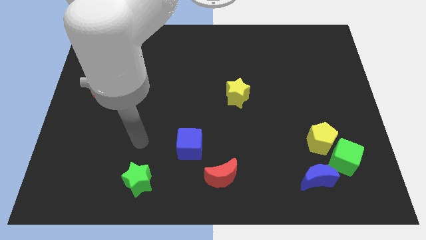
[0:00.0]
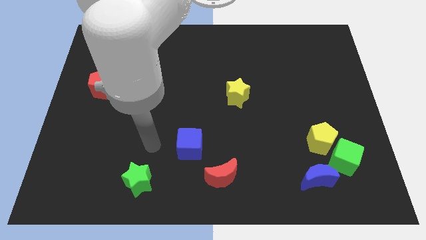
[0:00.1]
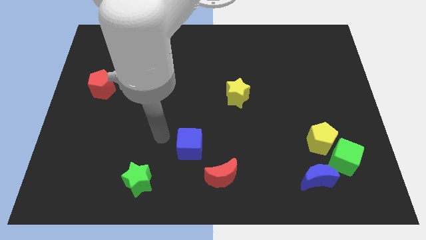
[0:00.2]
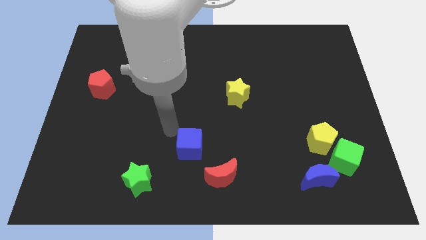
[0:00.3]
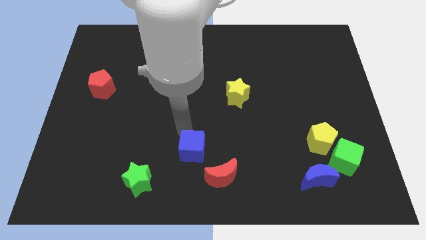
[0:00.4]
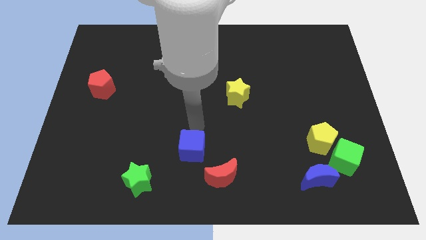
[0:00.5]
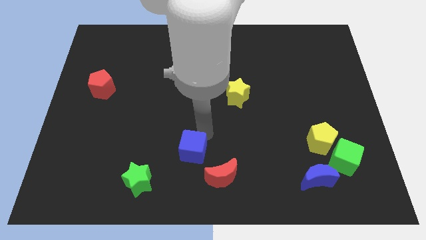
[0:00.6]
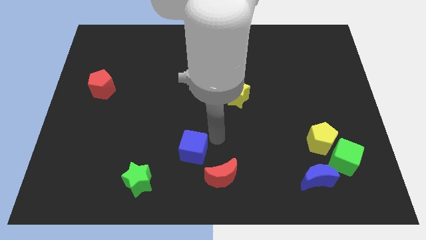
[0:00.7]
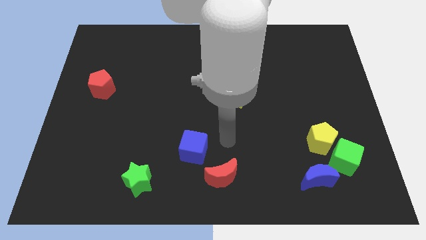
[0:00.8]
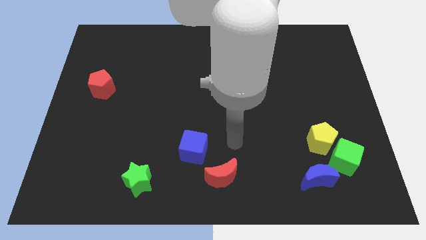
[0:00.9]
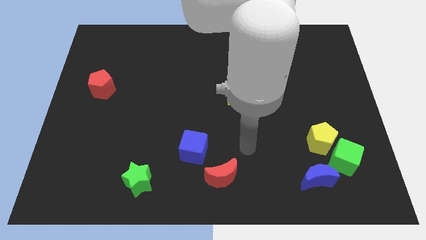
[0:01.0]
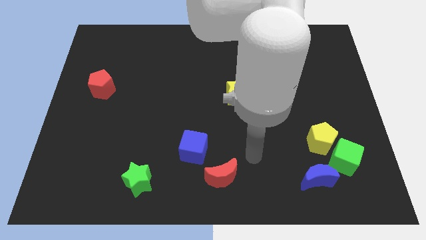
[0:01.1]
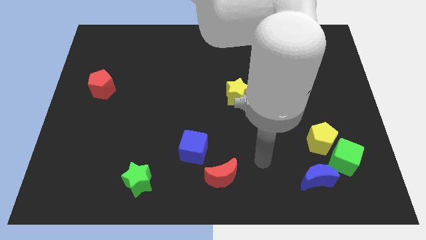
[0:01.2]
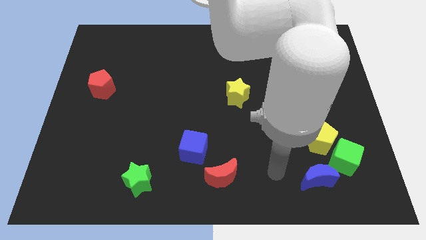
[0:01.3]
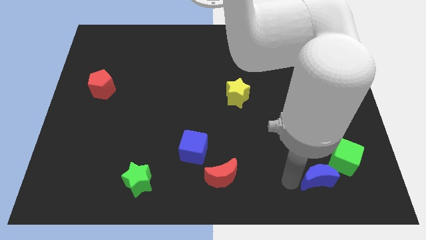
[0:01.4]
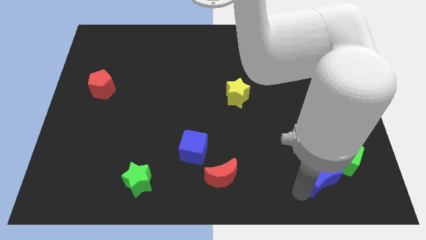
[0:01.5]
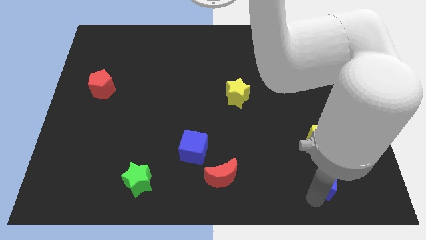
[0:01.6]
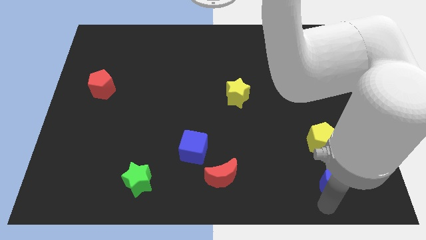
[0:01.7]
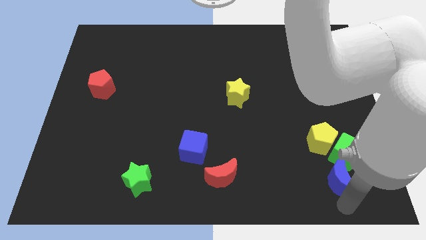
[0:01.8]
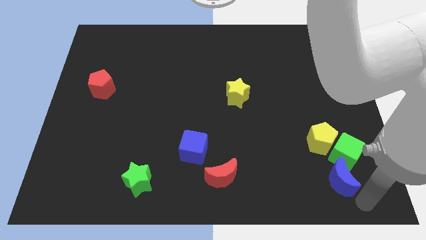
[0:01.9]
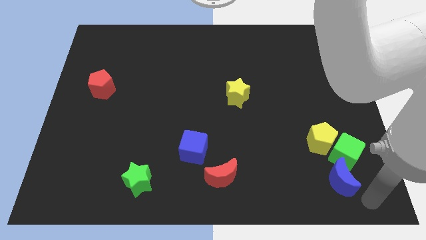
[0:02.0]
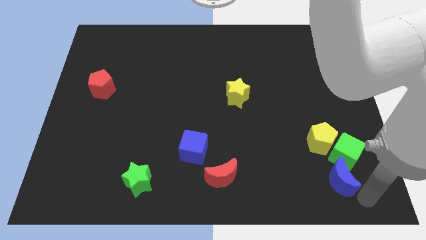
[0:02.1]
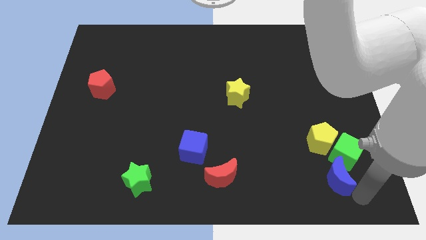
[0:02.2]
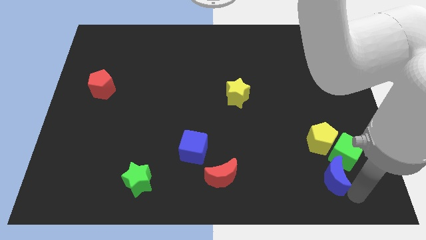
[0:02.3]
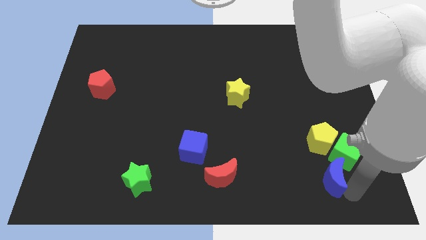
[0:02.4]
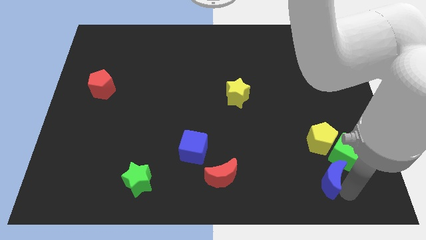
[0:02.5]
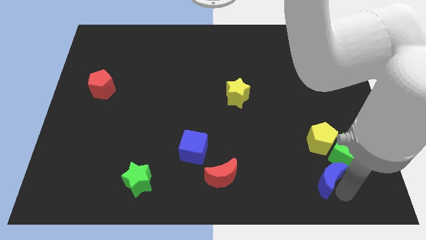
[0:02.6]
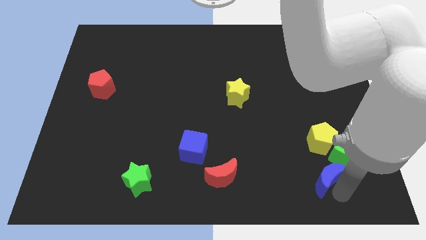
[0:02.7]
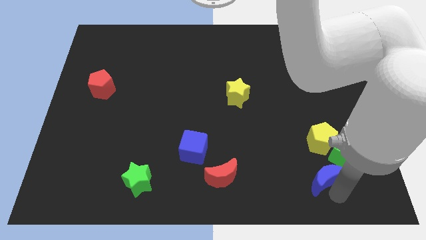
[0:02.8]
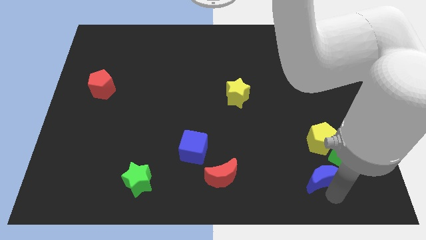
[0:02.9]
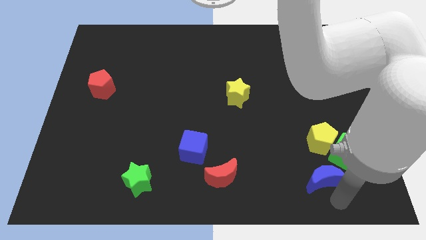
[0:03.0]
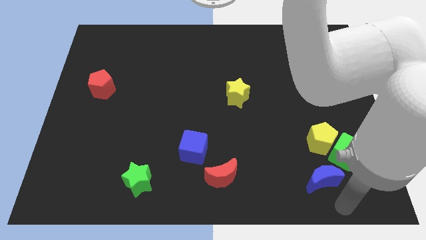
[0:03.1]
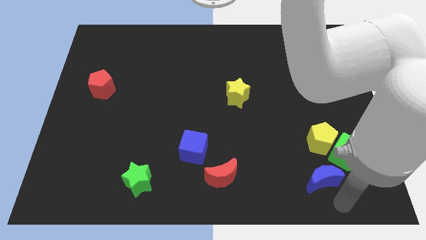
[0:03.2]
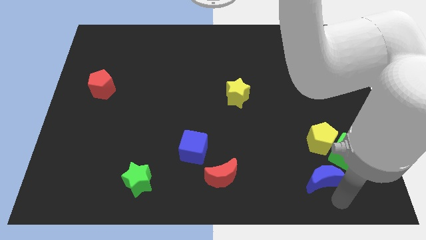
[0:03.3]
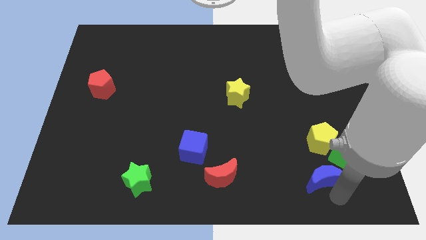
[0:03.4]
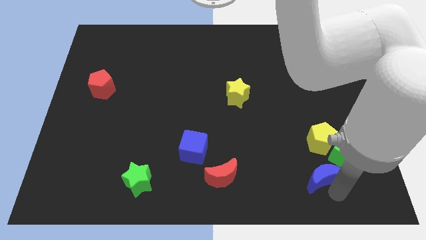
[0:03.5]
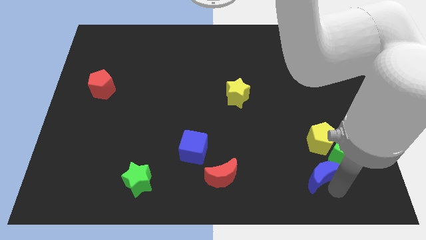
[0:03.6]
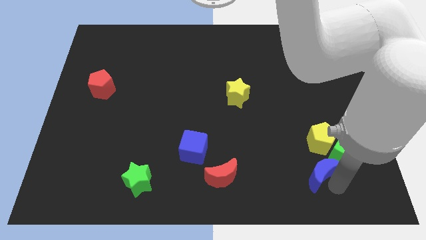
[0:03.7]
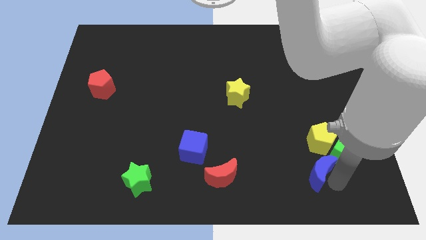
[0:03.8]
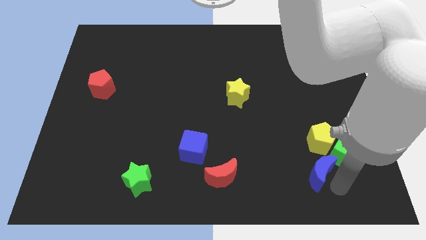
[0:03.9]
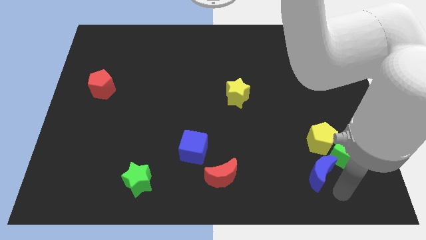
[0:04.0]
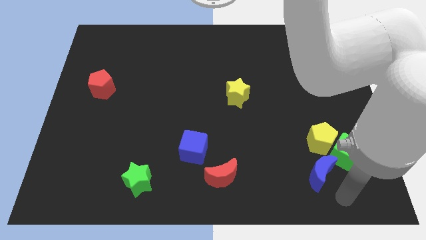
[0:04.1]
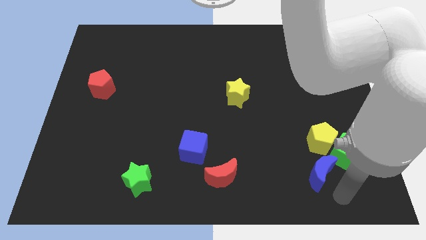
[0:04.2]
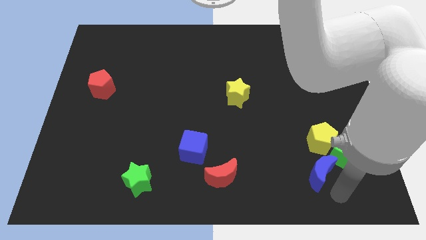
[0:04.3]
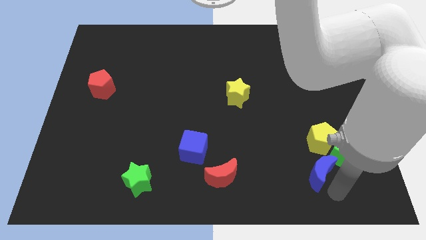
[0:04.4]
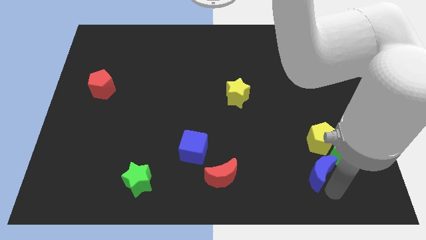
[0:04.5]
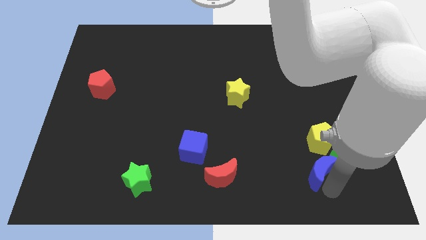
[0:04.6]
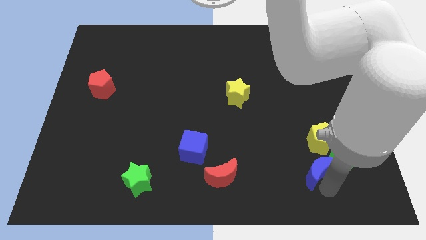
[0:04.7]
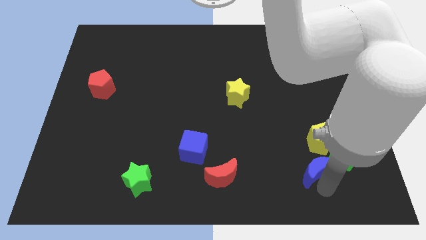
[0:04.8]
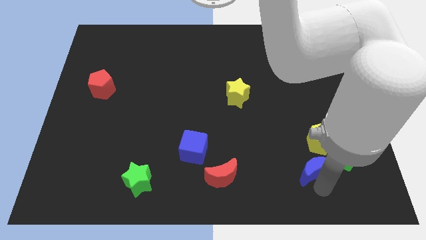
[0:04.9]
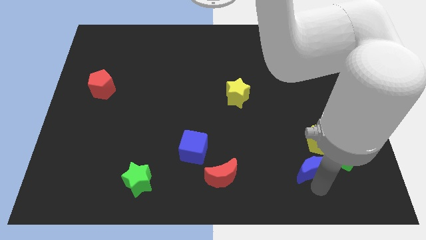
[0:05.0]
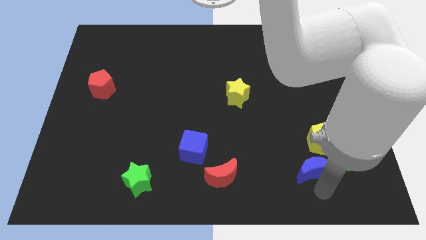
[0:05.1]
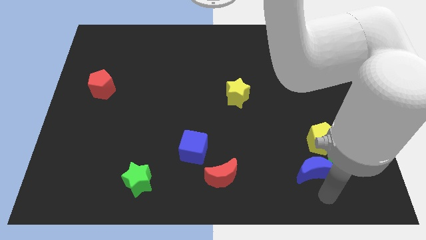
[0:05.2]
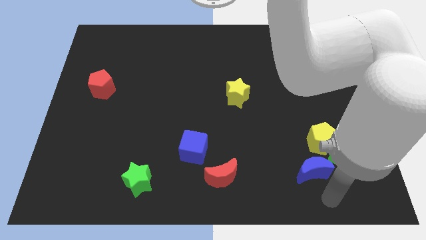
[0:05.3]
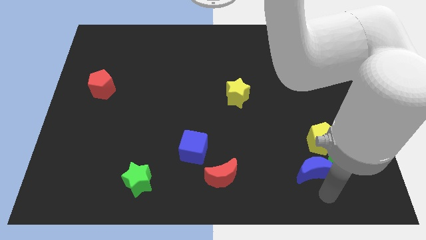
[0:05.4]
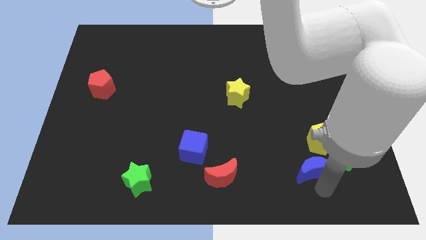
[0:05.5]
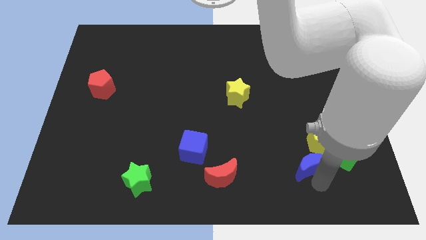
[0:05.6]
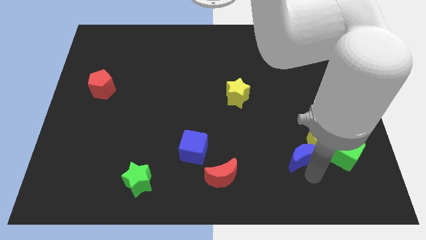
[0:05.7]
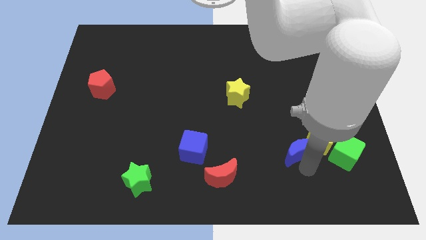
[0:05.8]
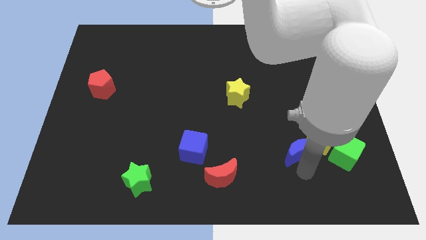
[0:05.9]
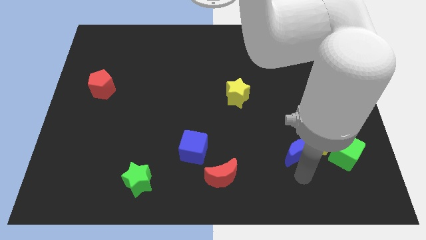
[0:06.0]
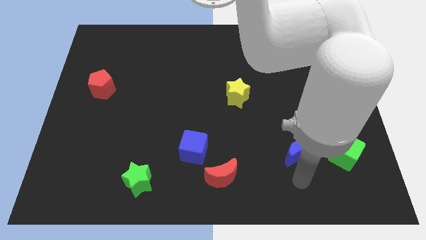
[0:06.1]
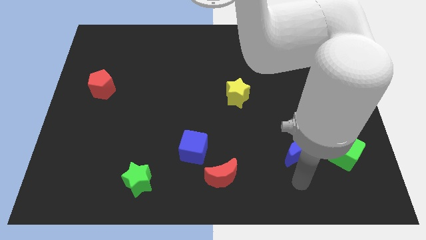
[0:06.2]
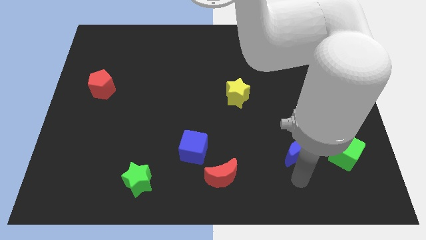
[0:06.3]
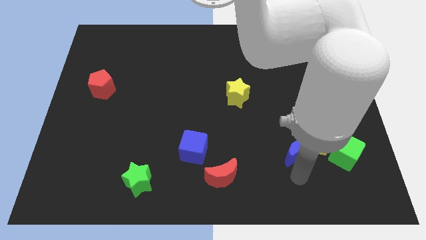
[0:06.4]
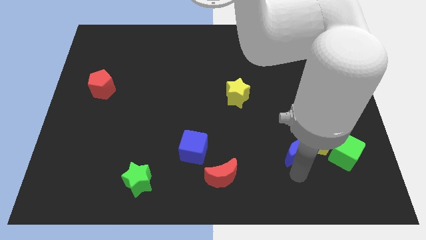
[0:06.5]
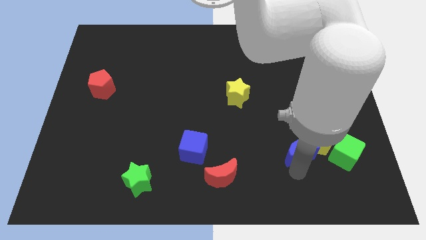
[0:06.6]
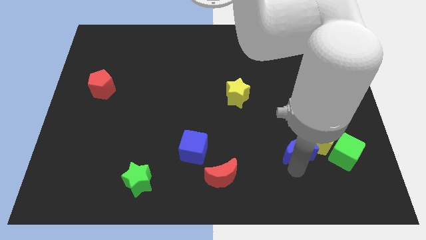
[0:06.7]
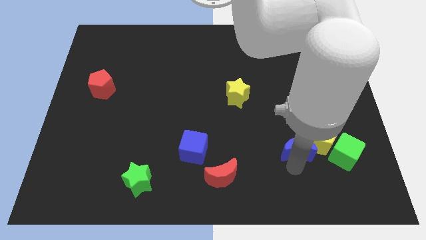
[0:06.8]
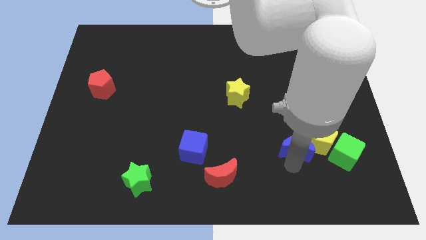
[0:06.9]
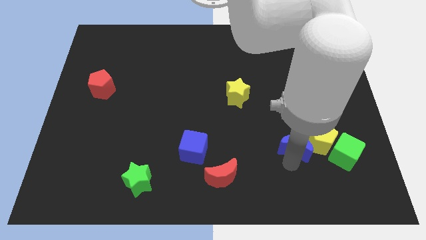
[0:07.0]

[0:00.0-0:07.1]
slightly move the blue moon upwards

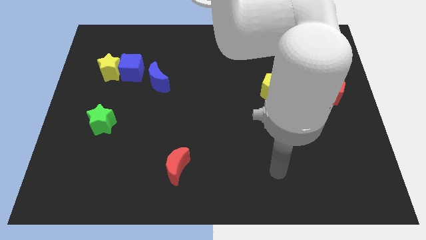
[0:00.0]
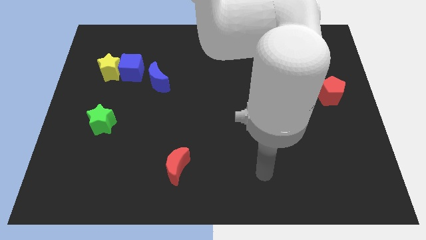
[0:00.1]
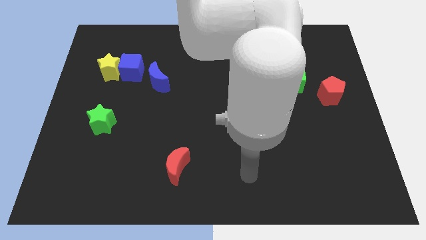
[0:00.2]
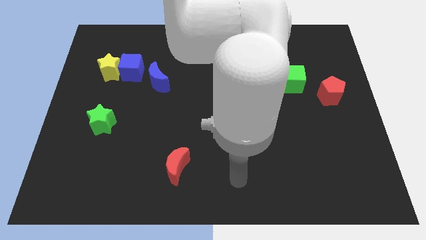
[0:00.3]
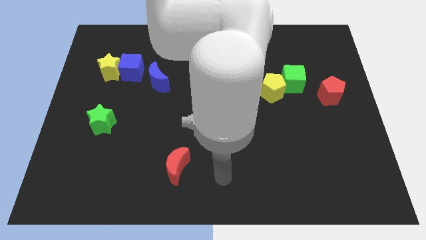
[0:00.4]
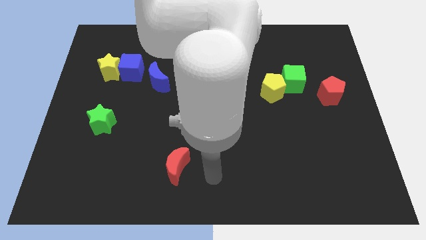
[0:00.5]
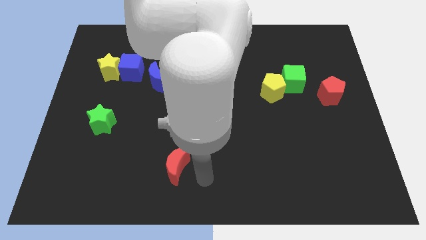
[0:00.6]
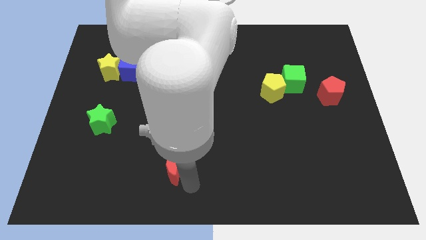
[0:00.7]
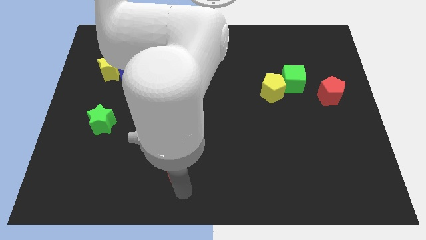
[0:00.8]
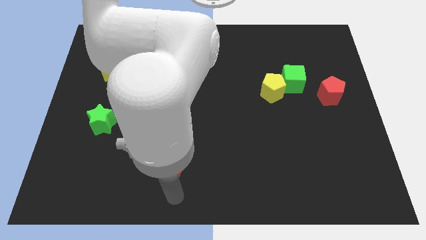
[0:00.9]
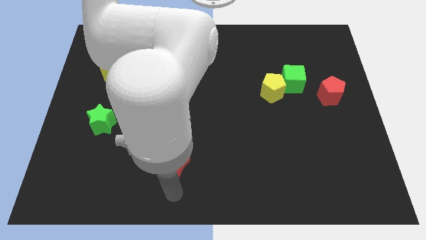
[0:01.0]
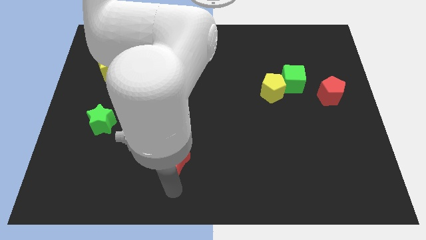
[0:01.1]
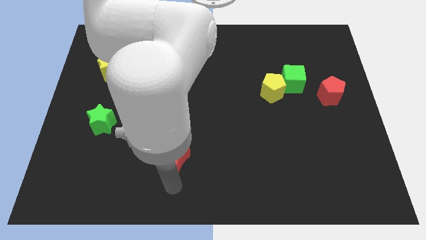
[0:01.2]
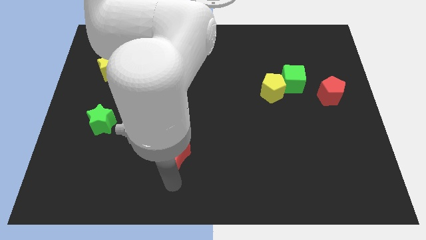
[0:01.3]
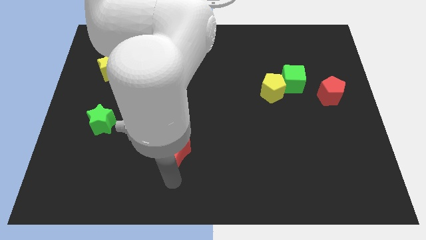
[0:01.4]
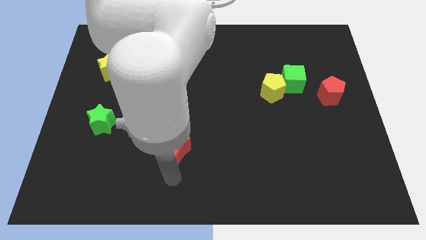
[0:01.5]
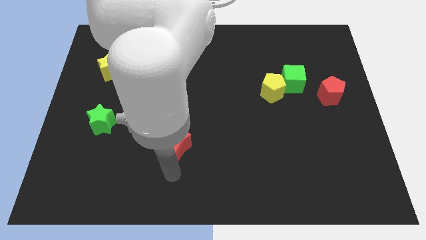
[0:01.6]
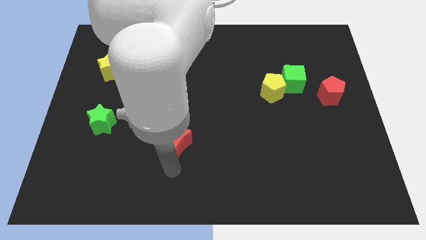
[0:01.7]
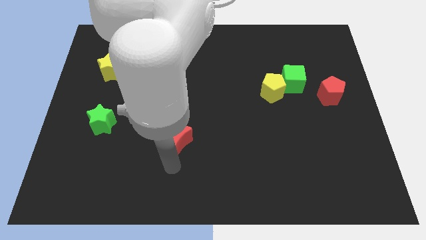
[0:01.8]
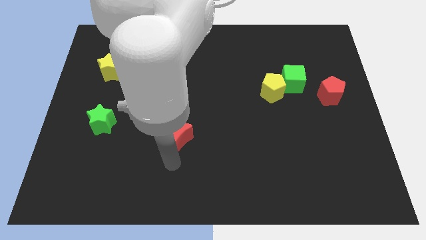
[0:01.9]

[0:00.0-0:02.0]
slightly move the red moon up
